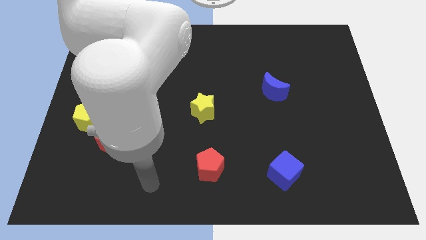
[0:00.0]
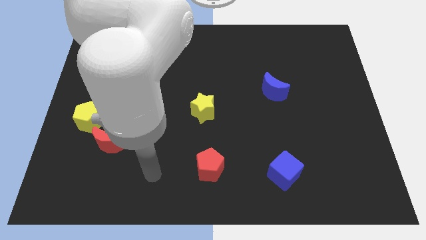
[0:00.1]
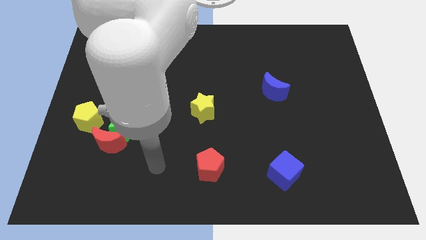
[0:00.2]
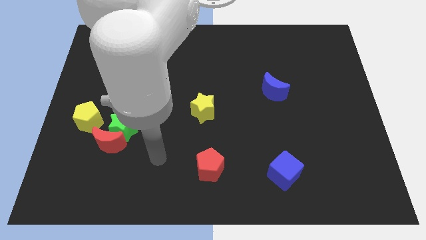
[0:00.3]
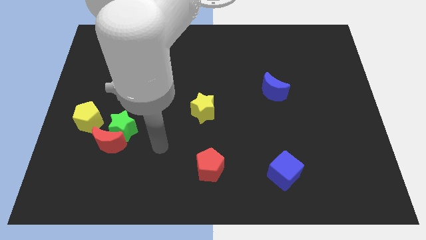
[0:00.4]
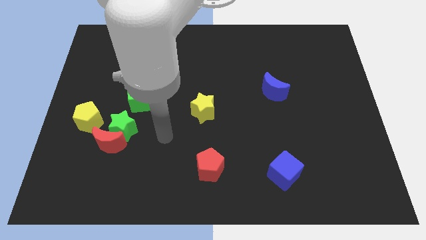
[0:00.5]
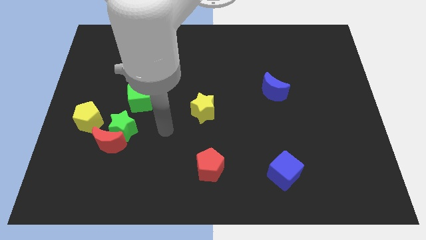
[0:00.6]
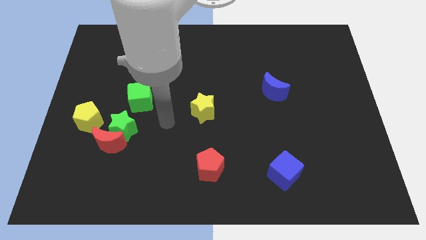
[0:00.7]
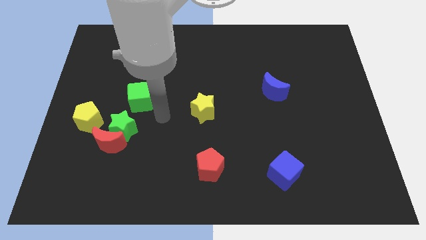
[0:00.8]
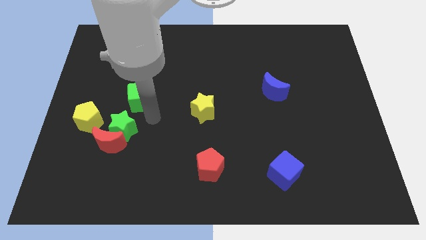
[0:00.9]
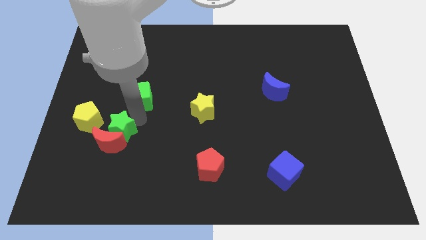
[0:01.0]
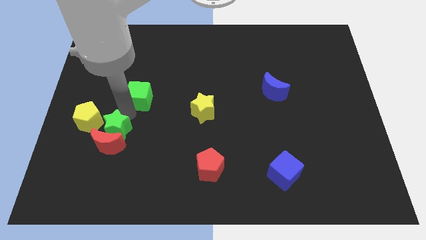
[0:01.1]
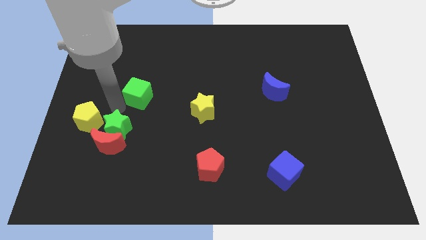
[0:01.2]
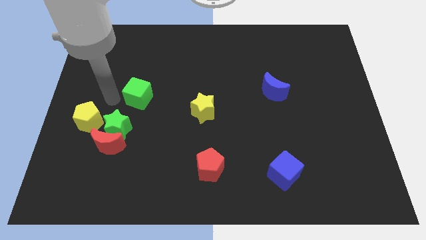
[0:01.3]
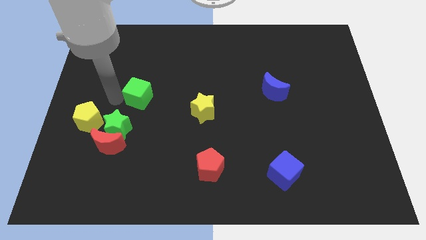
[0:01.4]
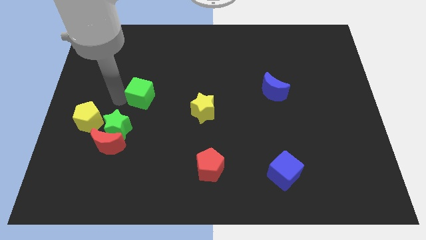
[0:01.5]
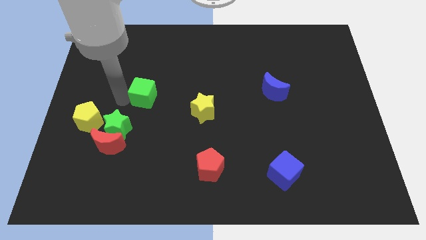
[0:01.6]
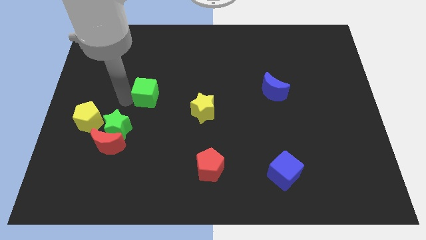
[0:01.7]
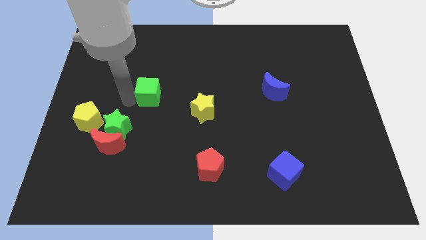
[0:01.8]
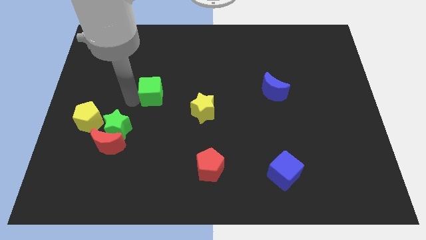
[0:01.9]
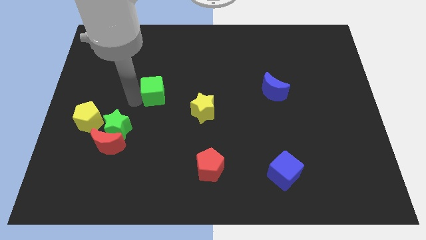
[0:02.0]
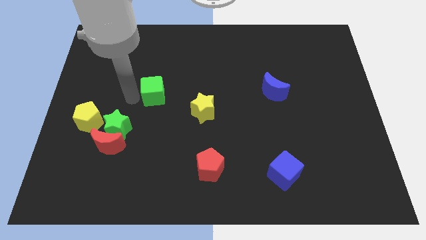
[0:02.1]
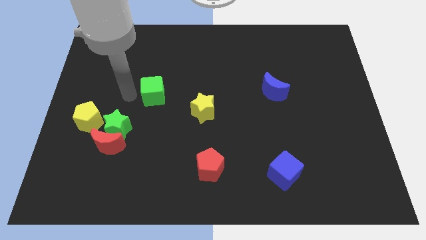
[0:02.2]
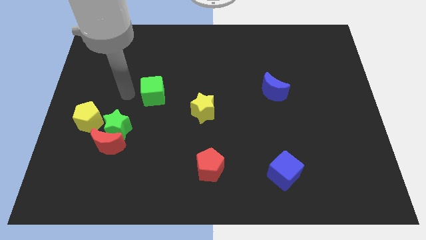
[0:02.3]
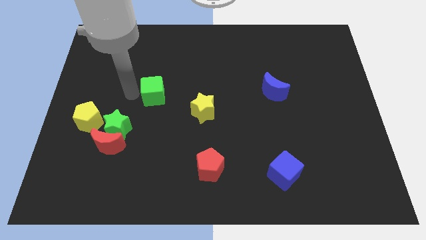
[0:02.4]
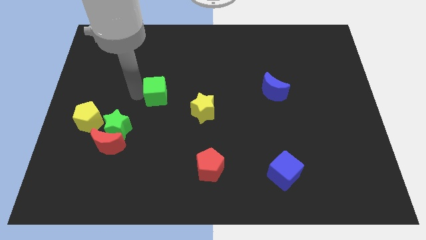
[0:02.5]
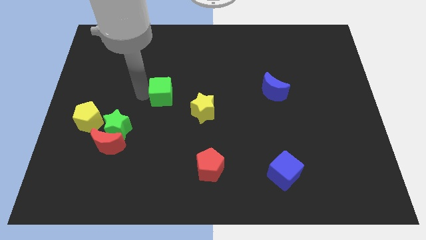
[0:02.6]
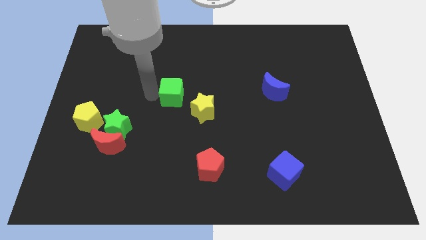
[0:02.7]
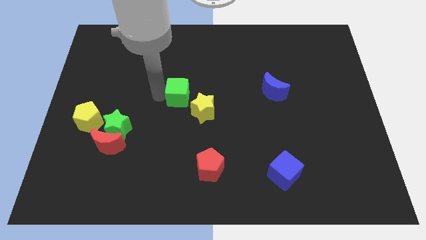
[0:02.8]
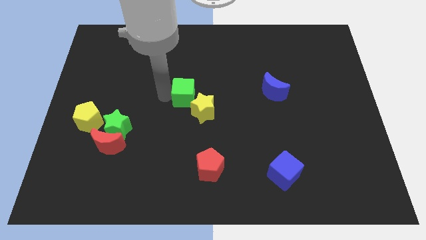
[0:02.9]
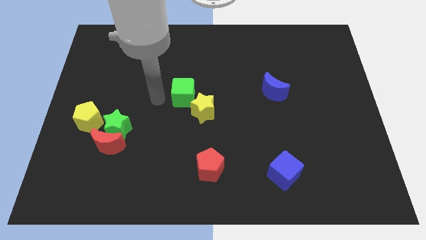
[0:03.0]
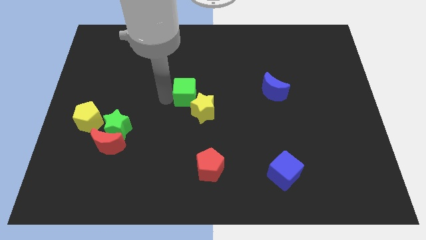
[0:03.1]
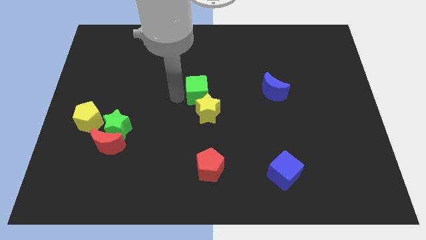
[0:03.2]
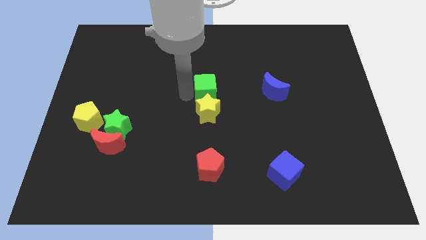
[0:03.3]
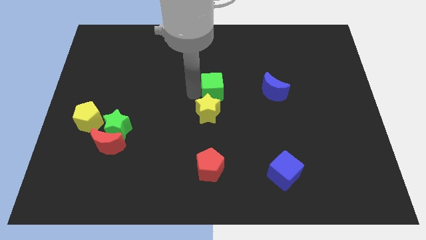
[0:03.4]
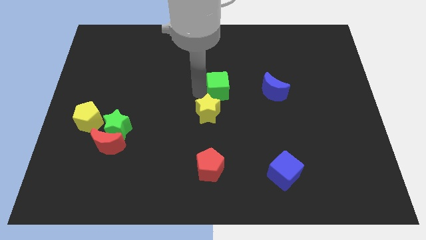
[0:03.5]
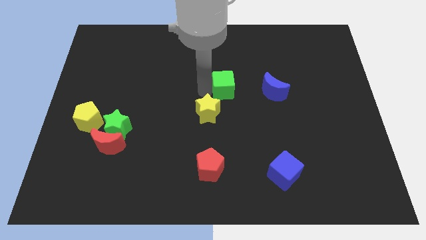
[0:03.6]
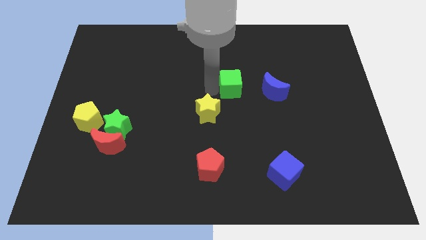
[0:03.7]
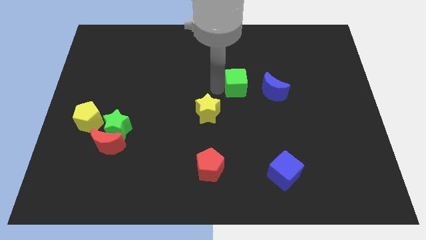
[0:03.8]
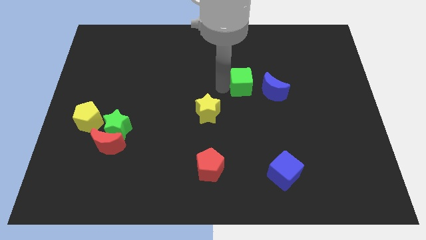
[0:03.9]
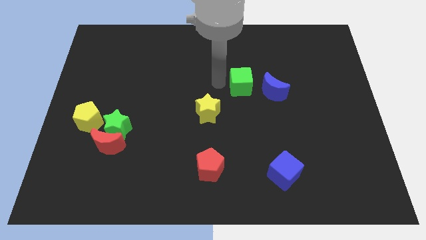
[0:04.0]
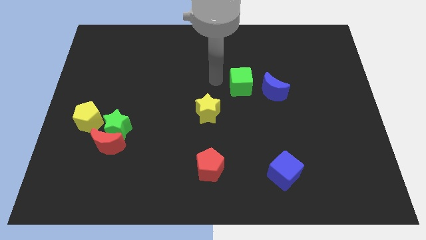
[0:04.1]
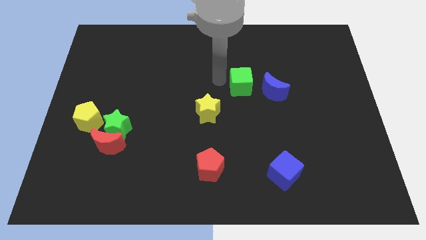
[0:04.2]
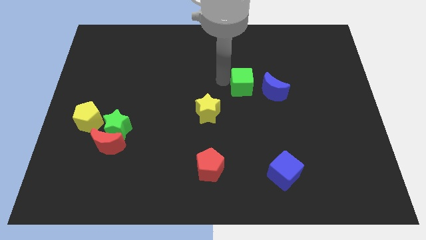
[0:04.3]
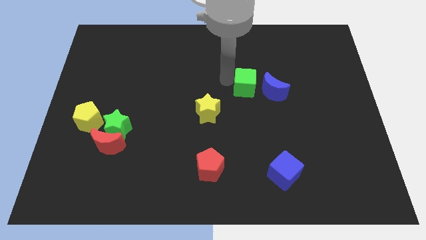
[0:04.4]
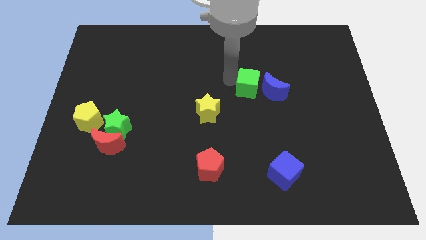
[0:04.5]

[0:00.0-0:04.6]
move the green cube towards the blue moon

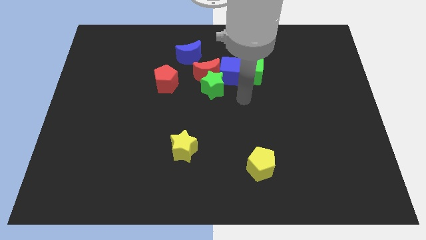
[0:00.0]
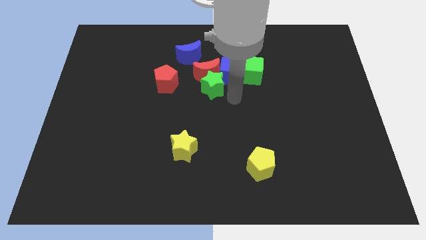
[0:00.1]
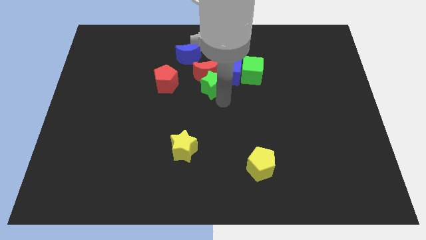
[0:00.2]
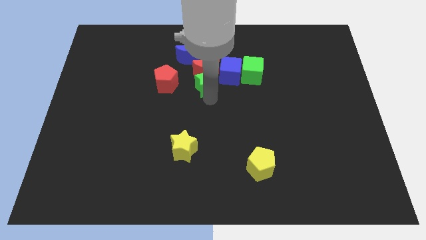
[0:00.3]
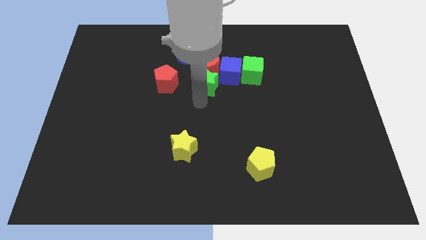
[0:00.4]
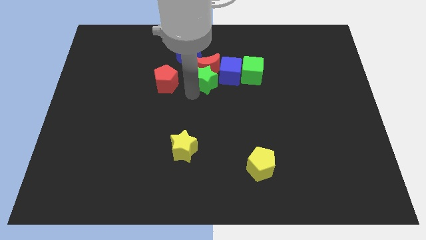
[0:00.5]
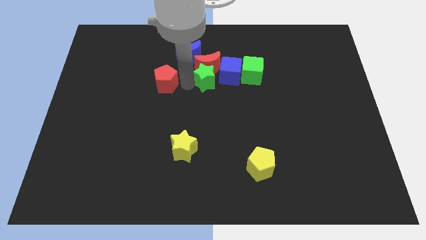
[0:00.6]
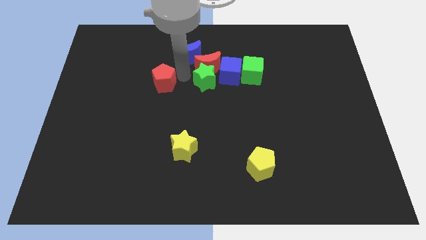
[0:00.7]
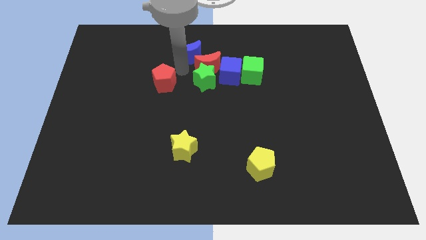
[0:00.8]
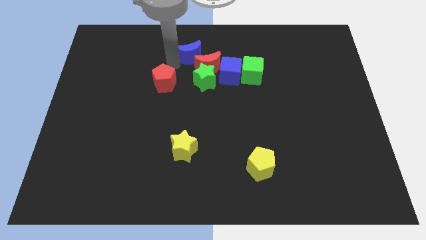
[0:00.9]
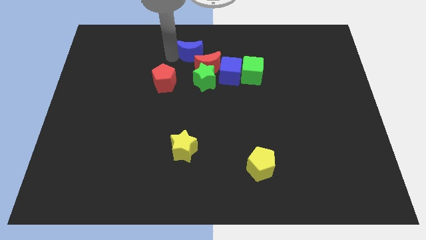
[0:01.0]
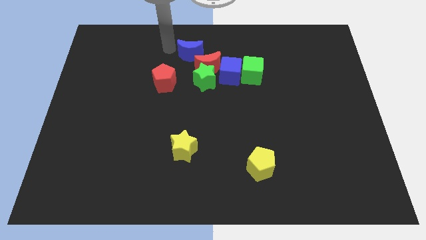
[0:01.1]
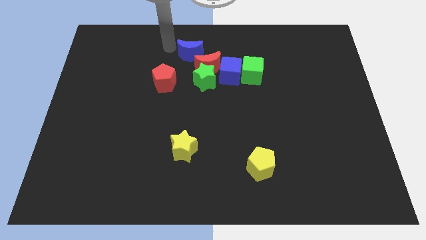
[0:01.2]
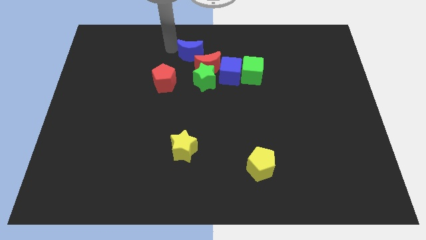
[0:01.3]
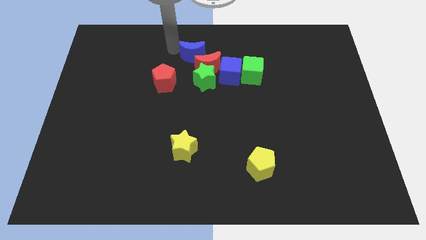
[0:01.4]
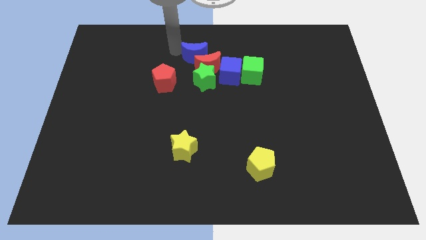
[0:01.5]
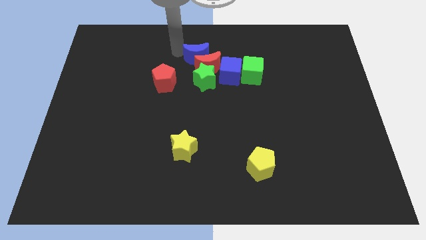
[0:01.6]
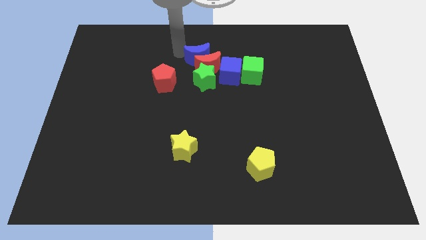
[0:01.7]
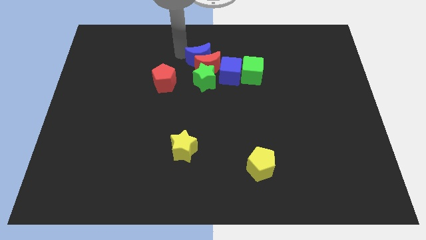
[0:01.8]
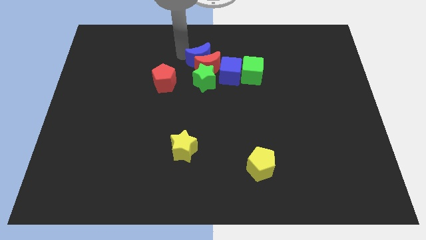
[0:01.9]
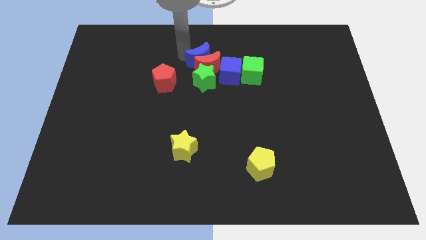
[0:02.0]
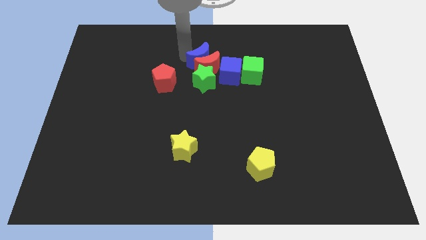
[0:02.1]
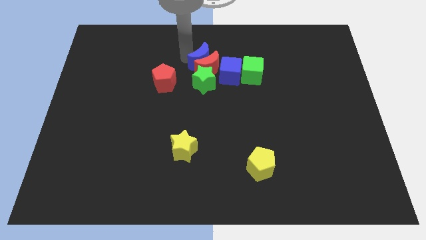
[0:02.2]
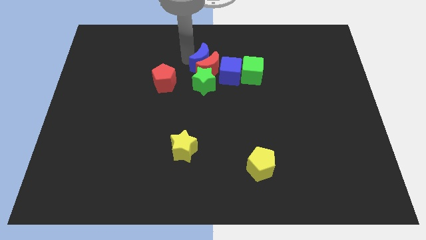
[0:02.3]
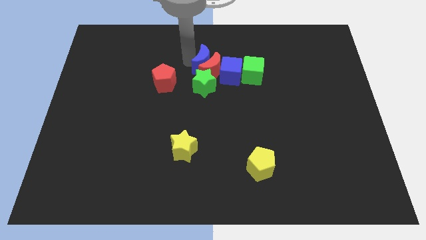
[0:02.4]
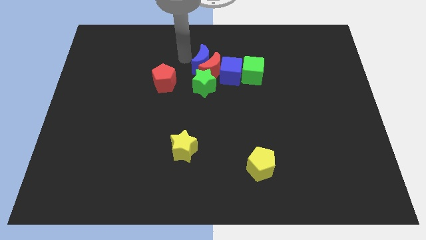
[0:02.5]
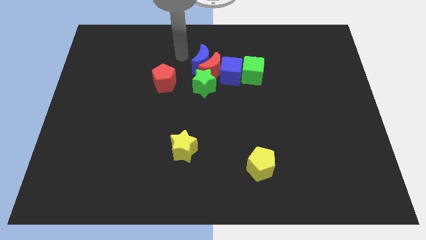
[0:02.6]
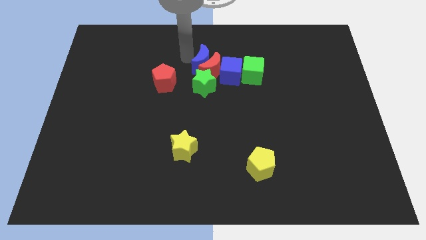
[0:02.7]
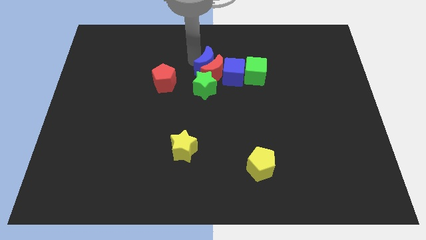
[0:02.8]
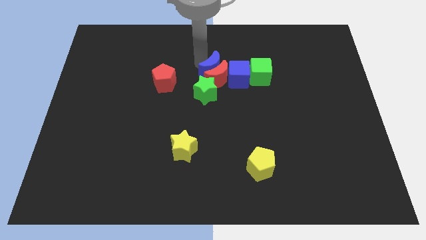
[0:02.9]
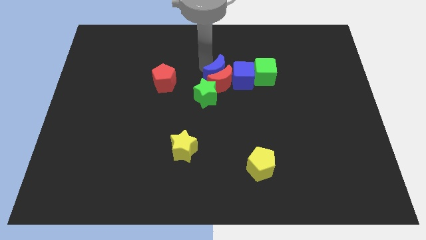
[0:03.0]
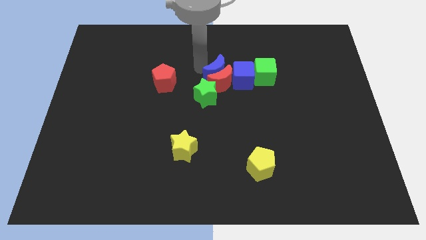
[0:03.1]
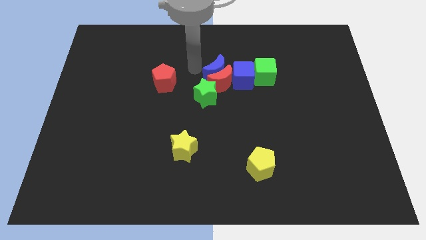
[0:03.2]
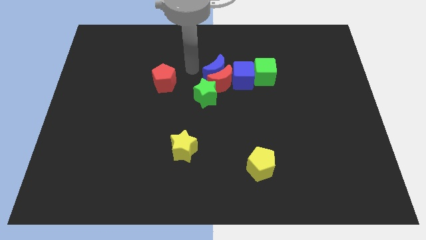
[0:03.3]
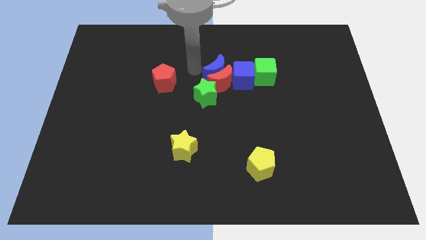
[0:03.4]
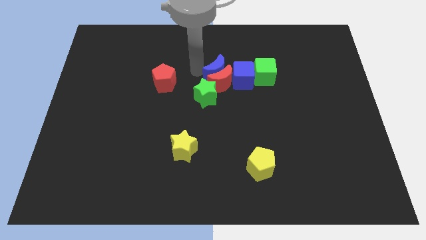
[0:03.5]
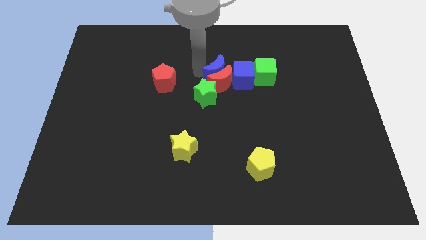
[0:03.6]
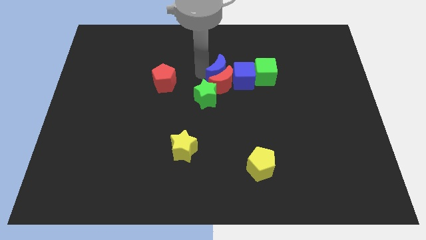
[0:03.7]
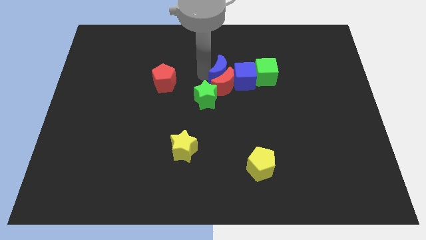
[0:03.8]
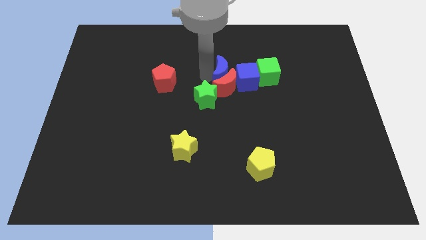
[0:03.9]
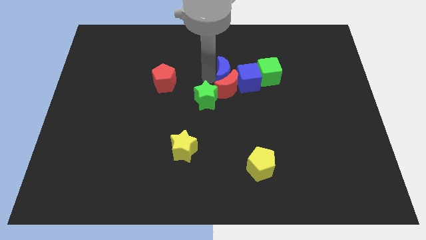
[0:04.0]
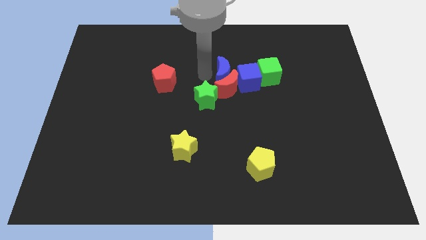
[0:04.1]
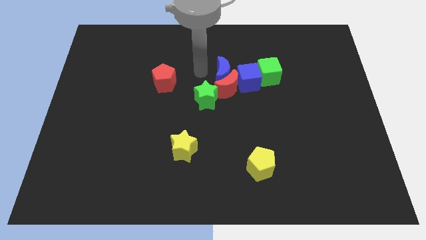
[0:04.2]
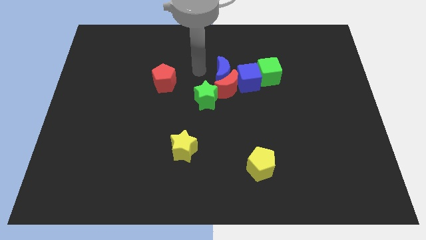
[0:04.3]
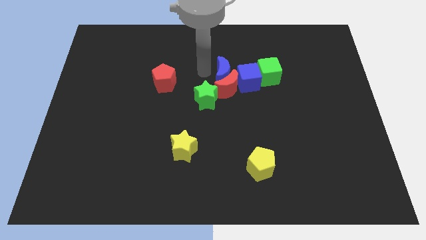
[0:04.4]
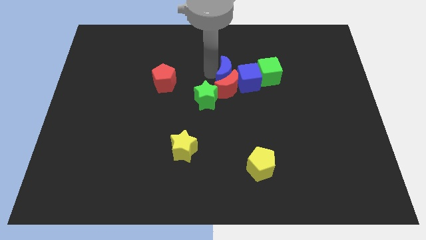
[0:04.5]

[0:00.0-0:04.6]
push the blue moon to the blue cube
